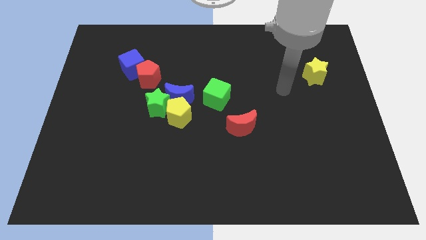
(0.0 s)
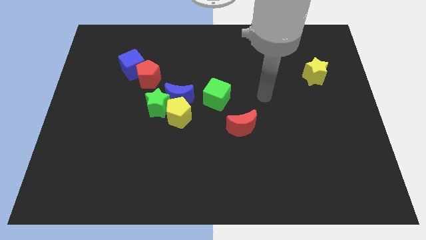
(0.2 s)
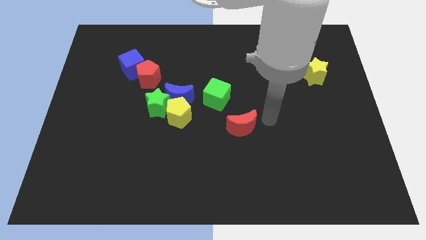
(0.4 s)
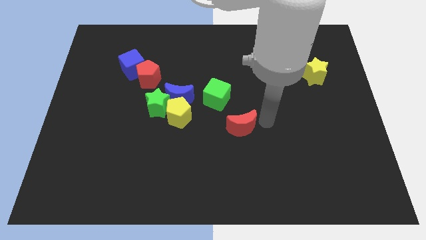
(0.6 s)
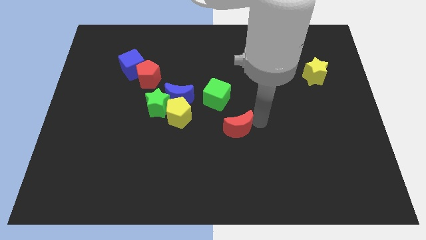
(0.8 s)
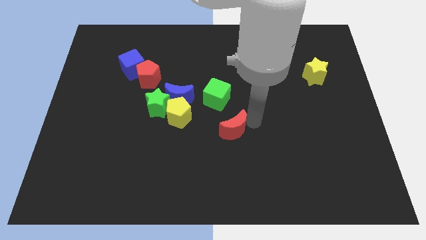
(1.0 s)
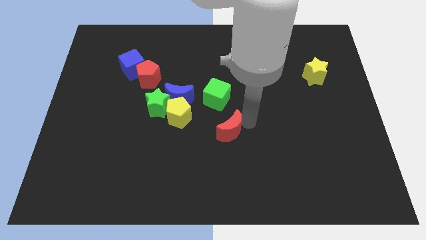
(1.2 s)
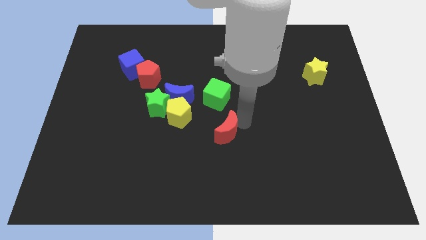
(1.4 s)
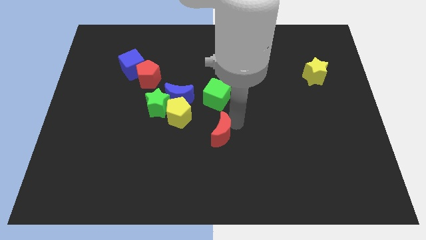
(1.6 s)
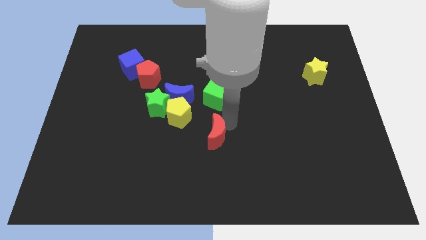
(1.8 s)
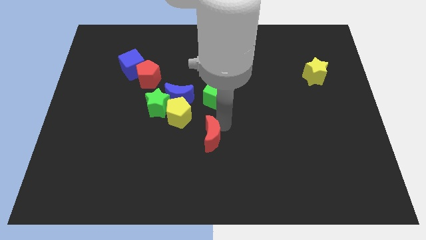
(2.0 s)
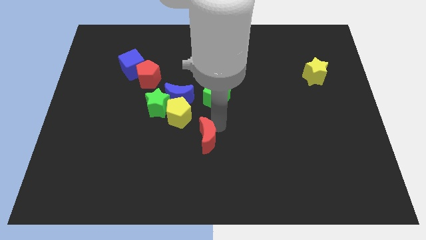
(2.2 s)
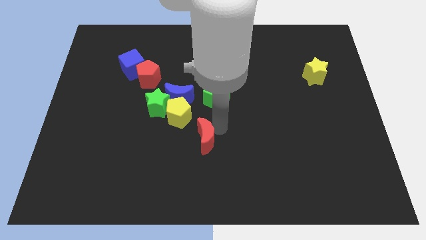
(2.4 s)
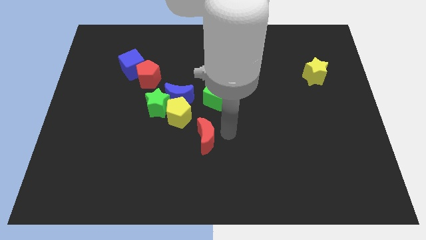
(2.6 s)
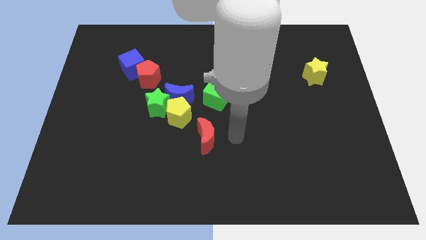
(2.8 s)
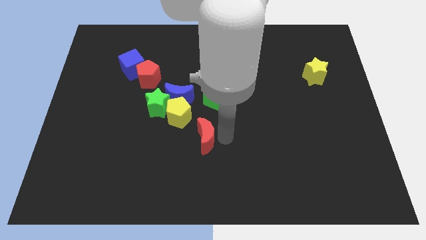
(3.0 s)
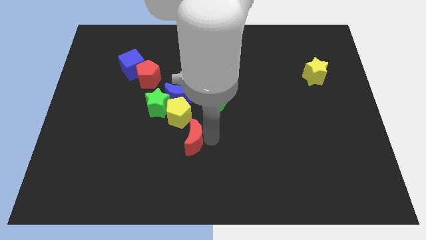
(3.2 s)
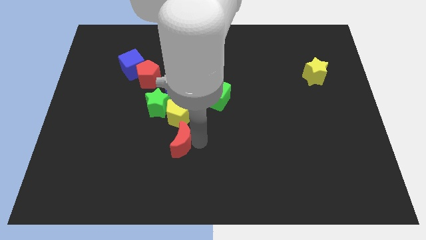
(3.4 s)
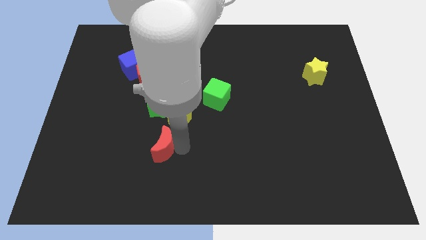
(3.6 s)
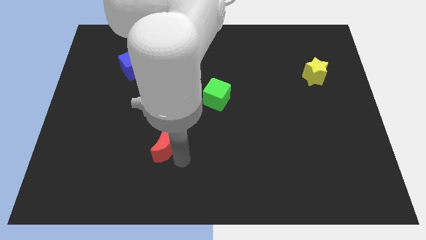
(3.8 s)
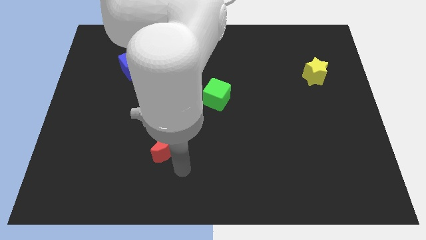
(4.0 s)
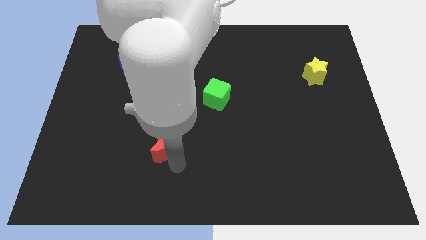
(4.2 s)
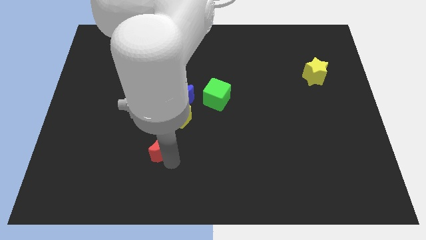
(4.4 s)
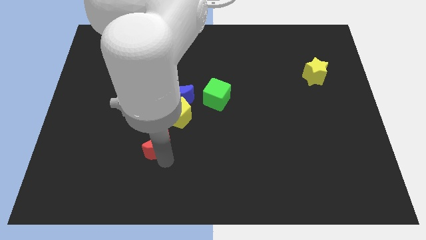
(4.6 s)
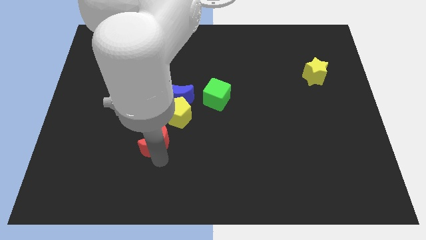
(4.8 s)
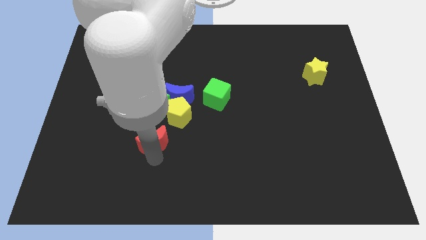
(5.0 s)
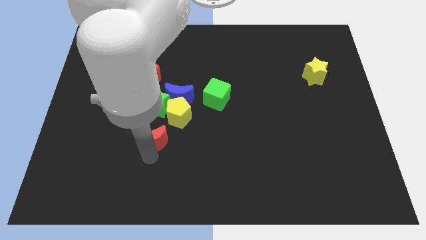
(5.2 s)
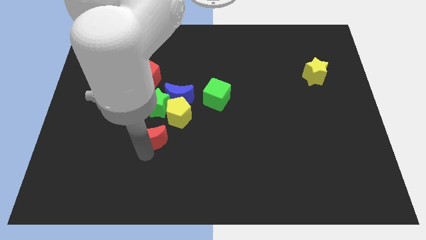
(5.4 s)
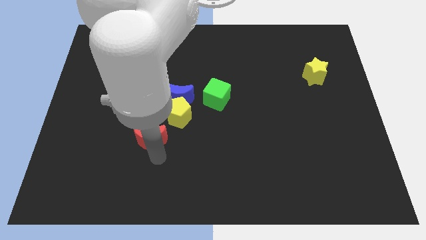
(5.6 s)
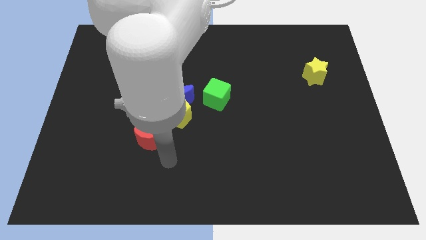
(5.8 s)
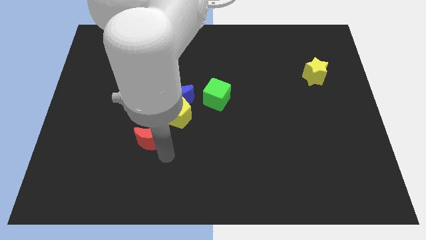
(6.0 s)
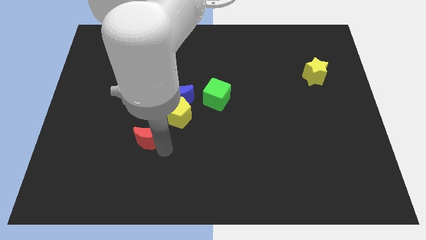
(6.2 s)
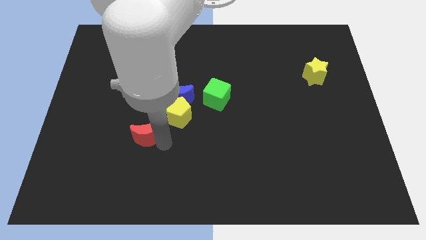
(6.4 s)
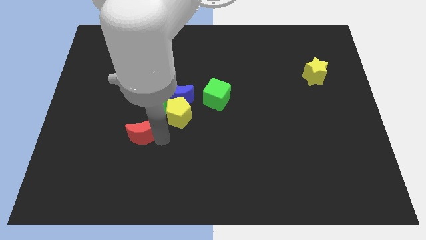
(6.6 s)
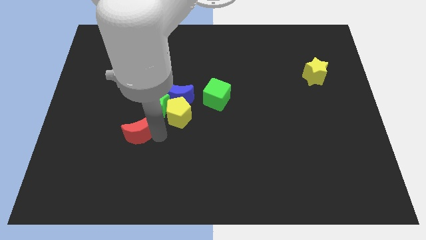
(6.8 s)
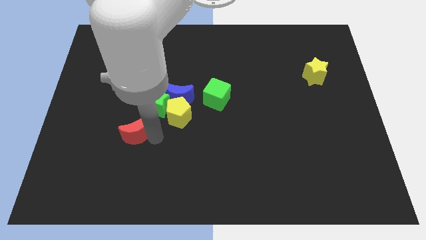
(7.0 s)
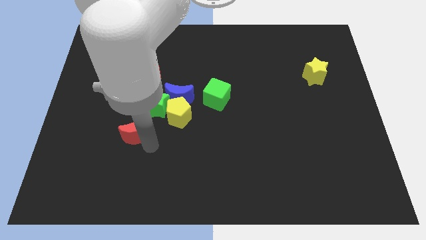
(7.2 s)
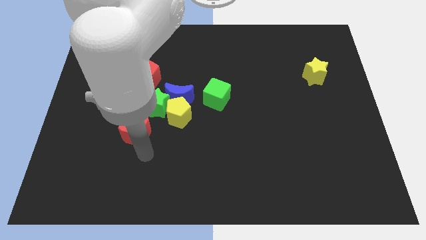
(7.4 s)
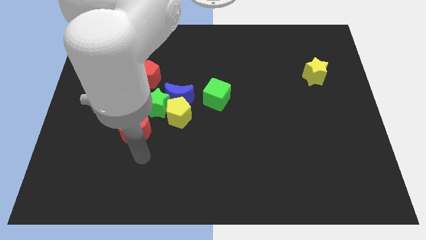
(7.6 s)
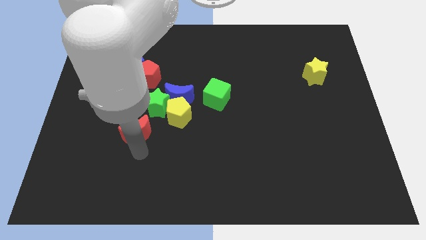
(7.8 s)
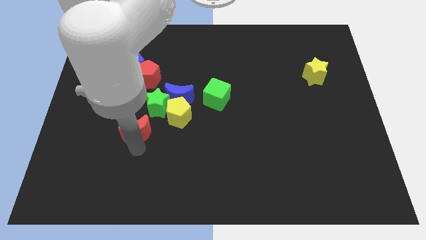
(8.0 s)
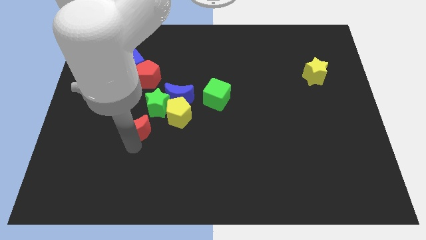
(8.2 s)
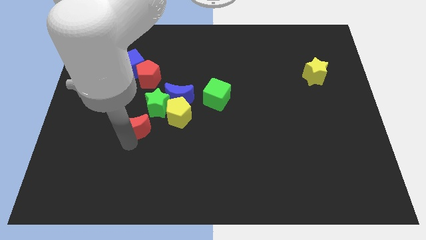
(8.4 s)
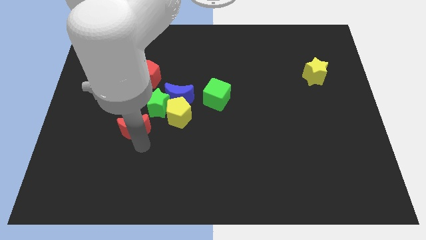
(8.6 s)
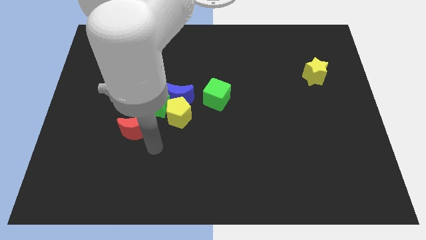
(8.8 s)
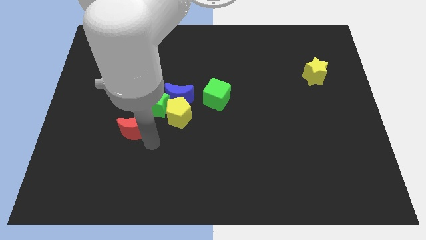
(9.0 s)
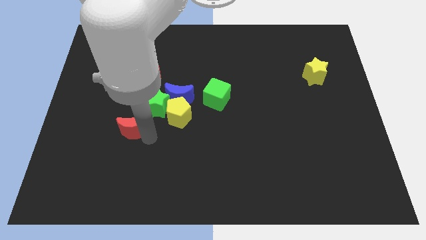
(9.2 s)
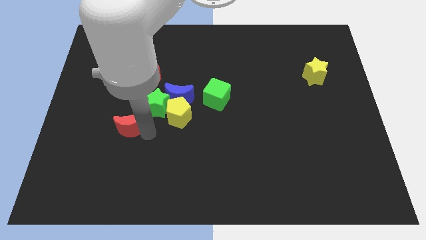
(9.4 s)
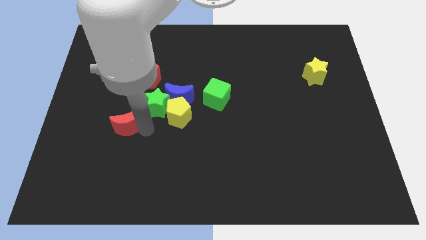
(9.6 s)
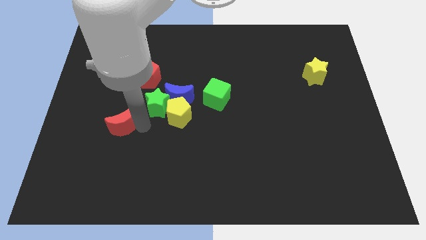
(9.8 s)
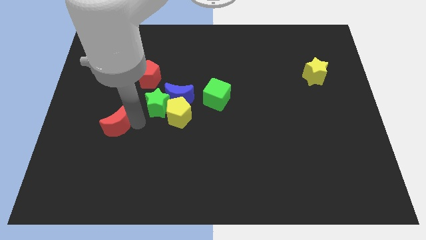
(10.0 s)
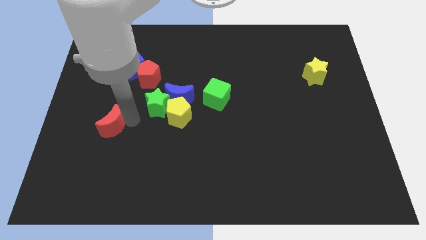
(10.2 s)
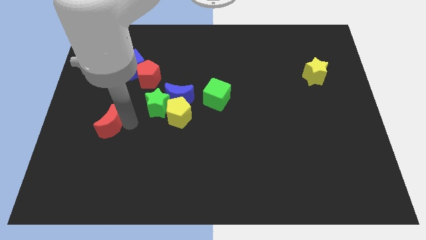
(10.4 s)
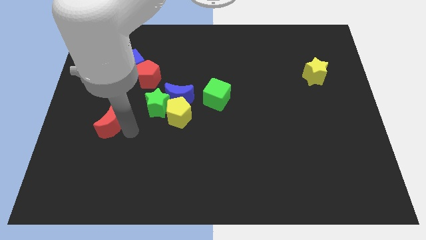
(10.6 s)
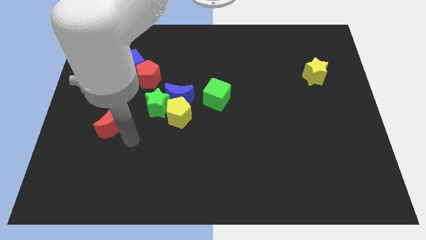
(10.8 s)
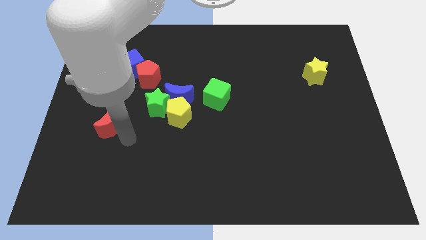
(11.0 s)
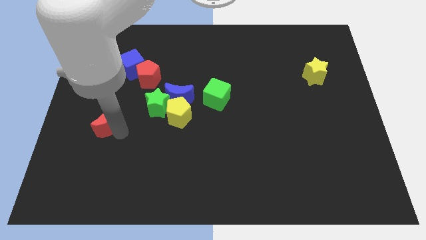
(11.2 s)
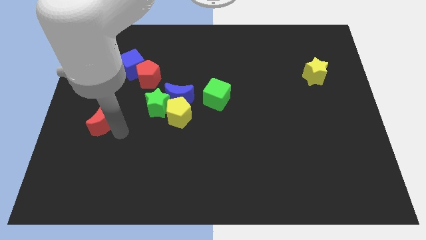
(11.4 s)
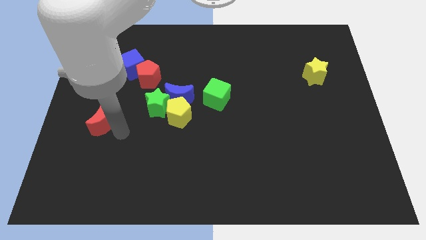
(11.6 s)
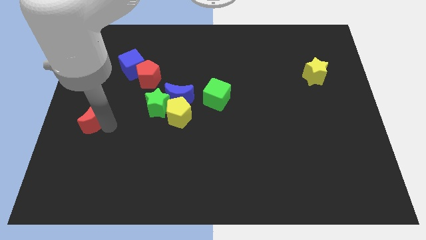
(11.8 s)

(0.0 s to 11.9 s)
slide the red moon to the left side of the board

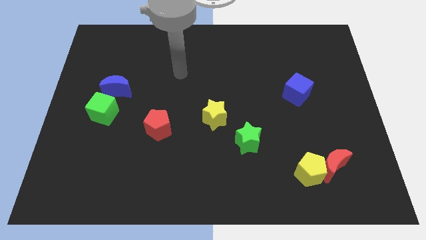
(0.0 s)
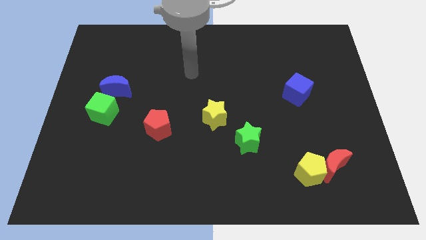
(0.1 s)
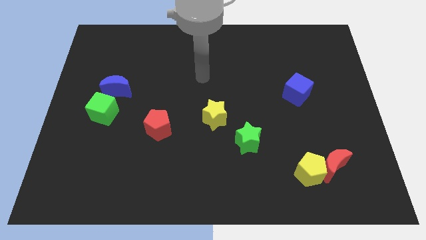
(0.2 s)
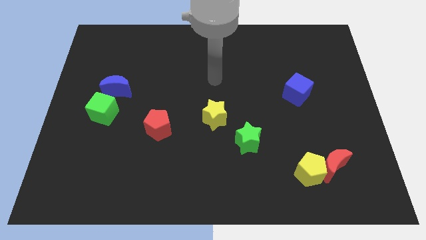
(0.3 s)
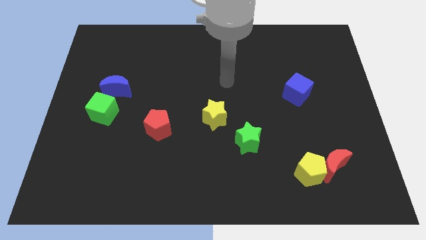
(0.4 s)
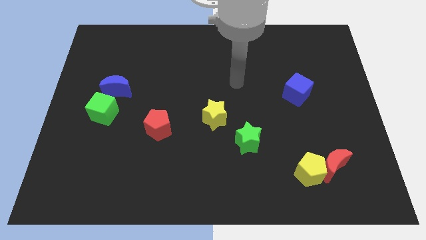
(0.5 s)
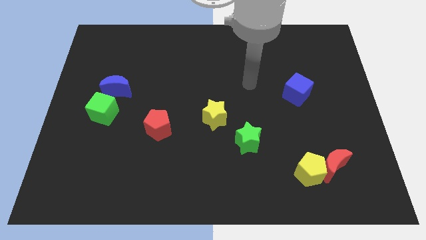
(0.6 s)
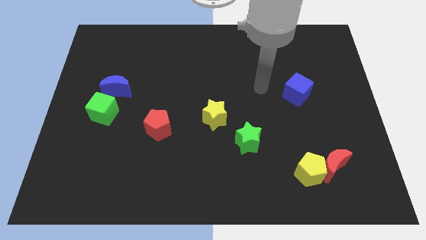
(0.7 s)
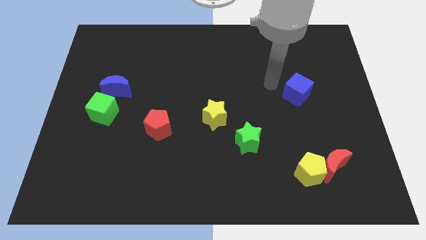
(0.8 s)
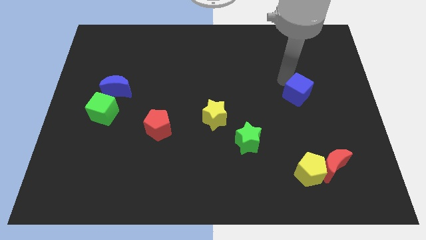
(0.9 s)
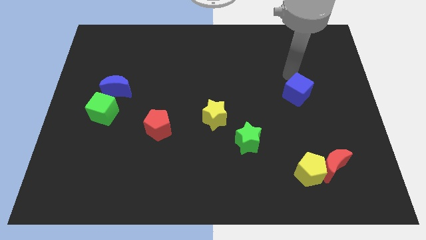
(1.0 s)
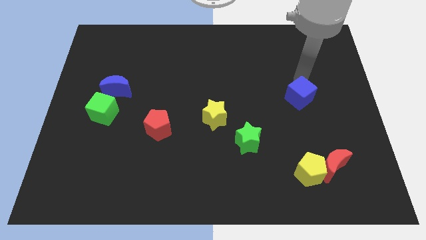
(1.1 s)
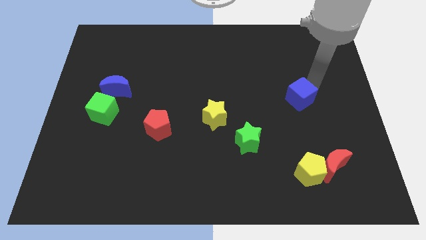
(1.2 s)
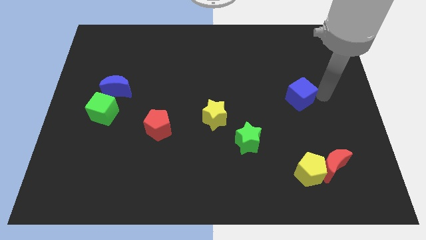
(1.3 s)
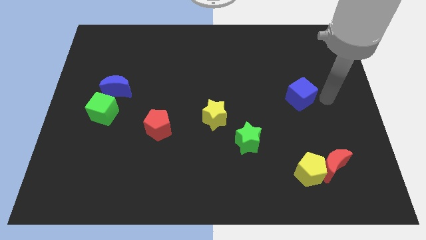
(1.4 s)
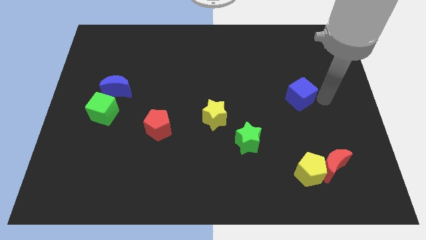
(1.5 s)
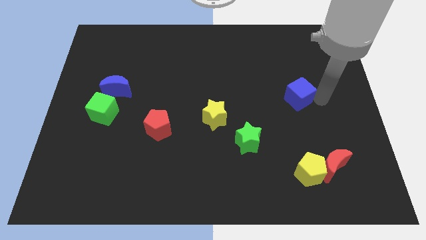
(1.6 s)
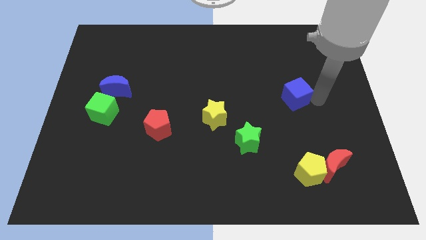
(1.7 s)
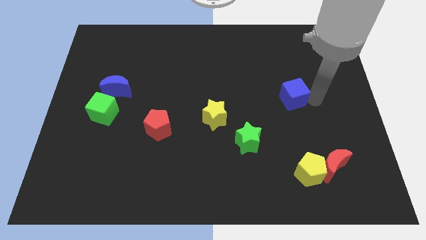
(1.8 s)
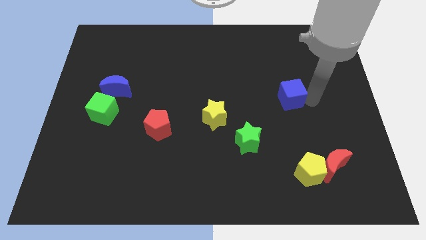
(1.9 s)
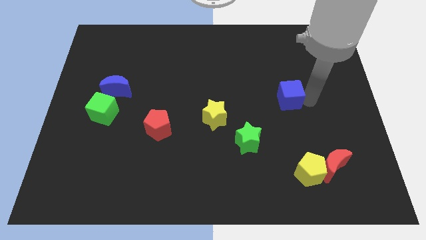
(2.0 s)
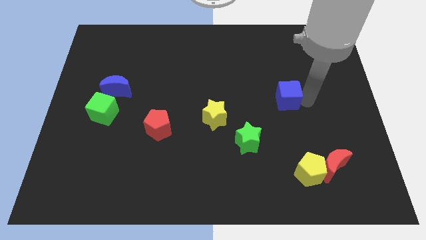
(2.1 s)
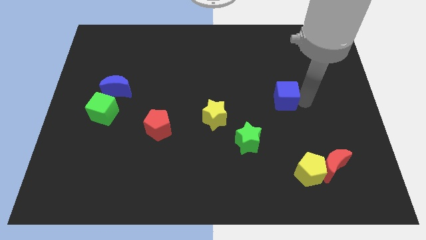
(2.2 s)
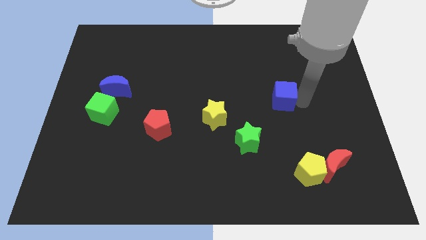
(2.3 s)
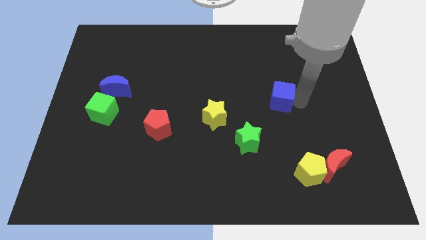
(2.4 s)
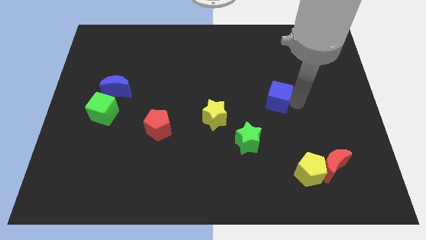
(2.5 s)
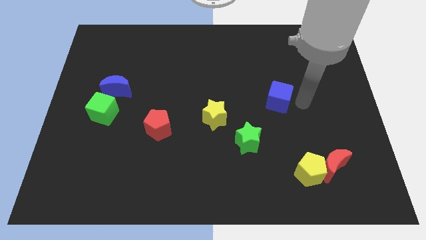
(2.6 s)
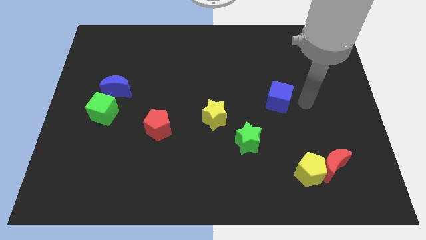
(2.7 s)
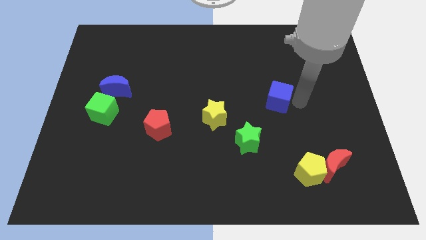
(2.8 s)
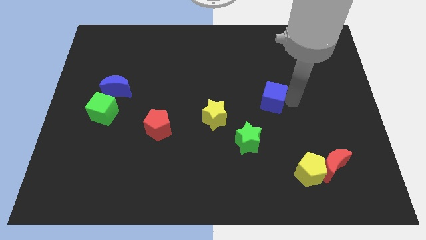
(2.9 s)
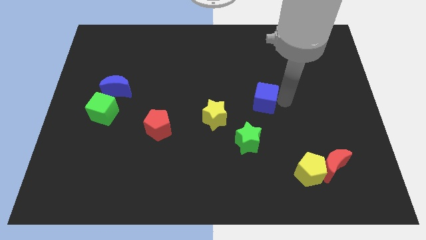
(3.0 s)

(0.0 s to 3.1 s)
push the blue cube to the middle of the board
